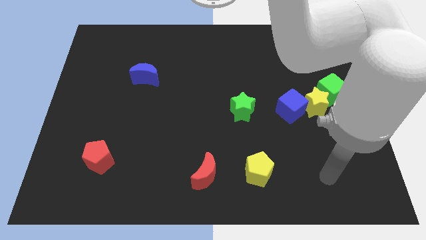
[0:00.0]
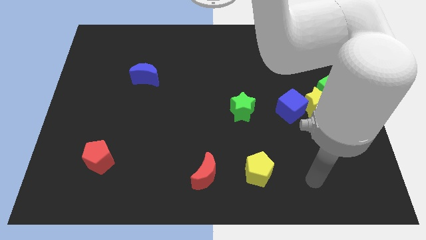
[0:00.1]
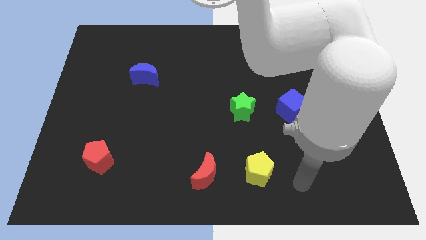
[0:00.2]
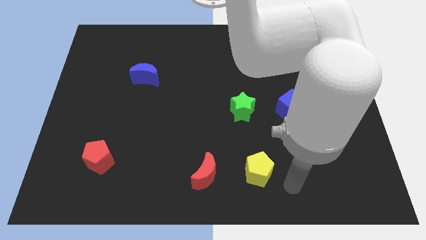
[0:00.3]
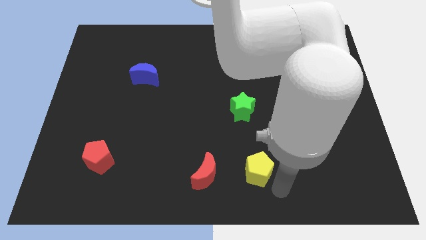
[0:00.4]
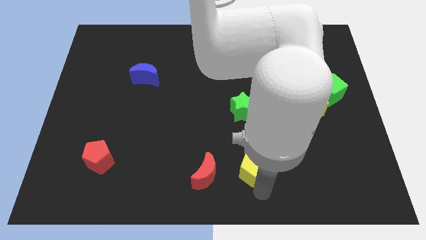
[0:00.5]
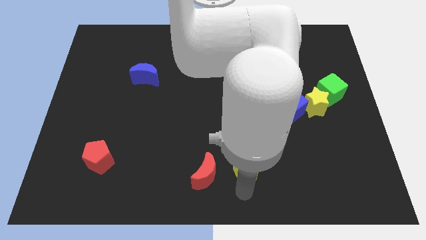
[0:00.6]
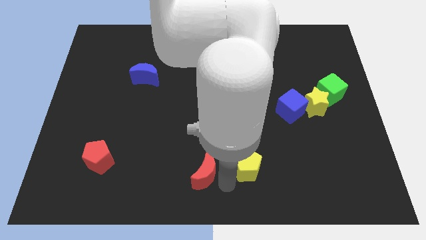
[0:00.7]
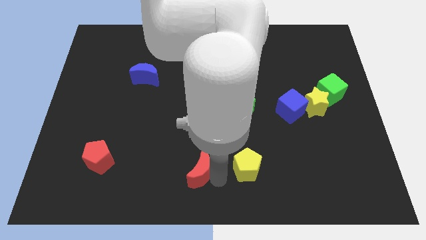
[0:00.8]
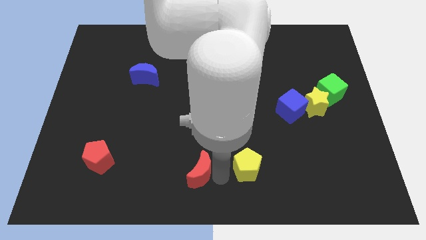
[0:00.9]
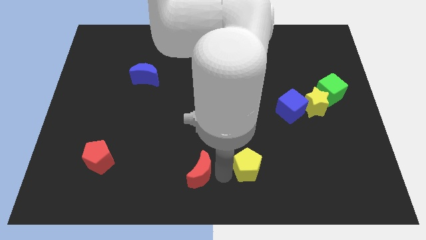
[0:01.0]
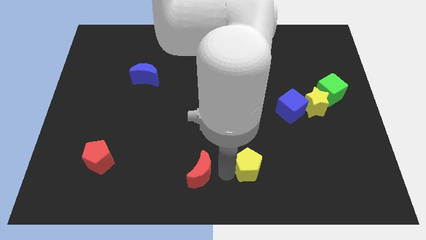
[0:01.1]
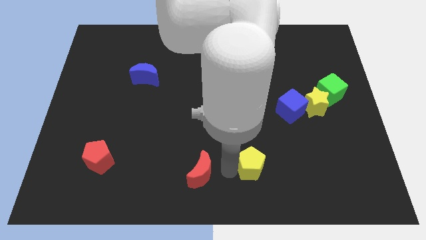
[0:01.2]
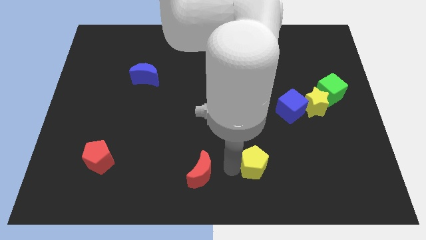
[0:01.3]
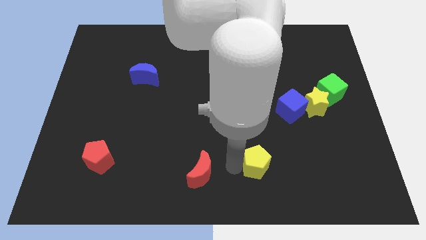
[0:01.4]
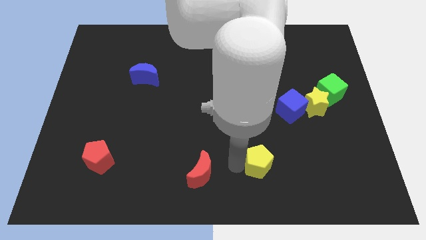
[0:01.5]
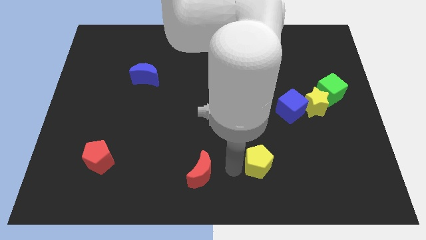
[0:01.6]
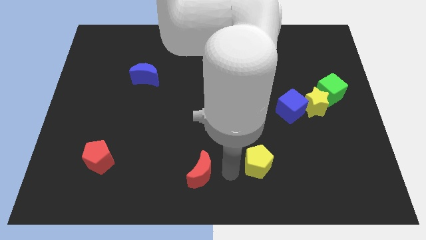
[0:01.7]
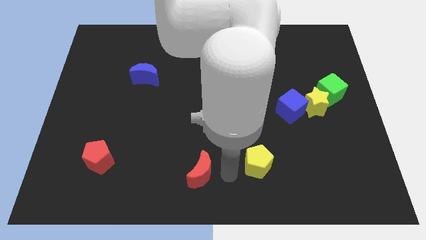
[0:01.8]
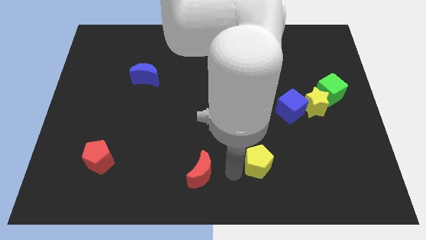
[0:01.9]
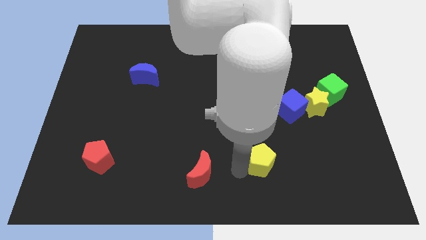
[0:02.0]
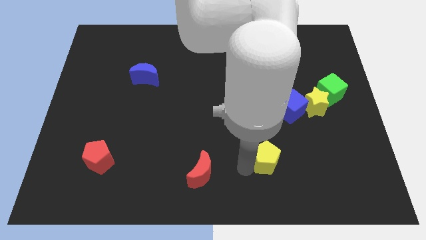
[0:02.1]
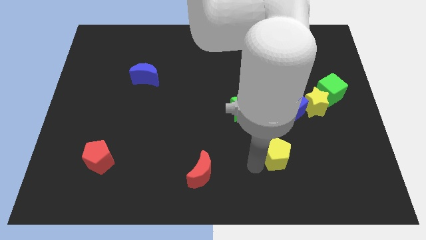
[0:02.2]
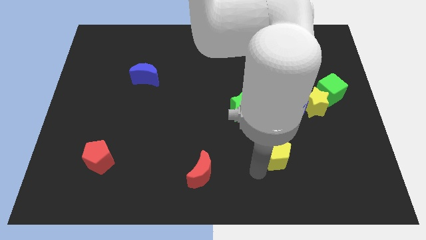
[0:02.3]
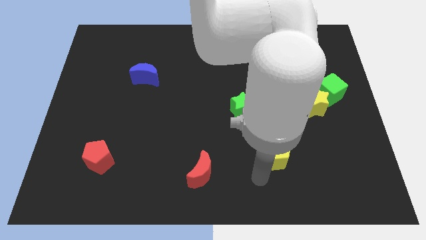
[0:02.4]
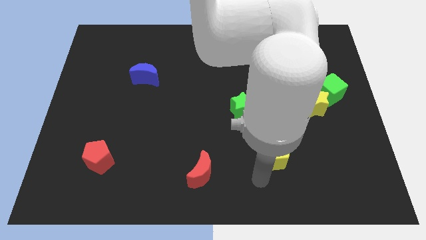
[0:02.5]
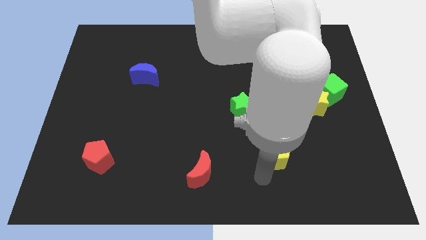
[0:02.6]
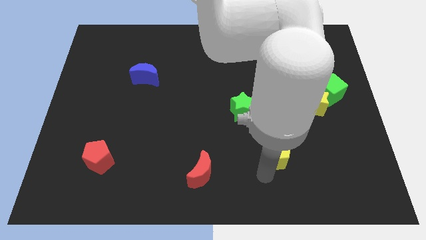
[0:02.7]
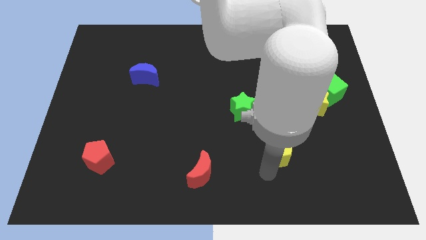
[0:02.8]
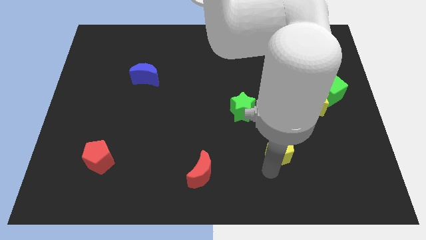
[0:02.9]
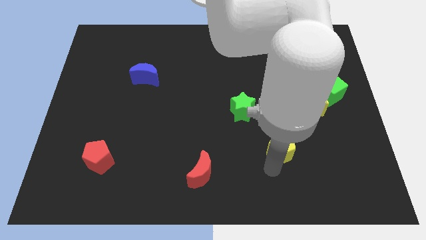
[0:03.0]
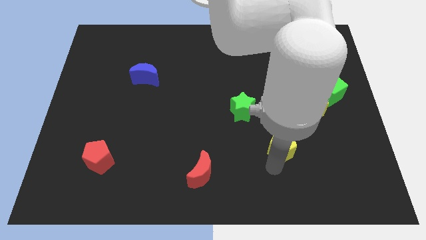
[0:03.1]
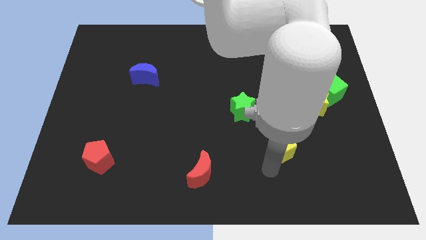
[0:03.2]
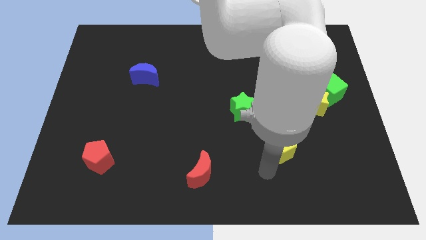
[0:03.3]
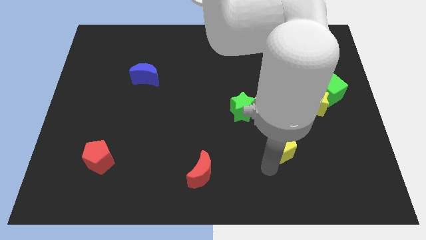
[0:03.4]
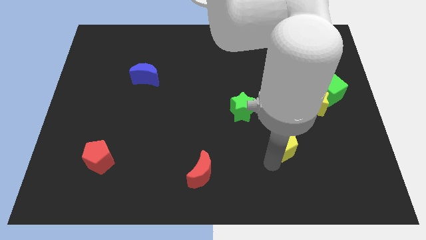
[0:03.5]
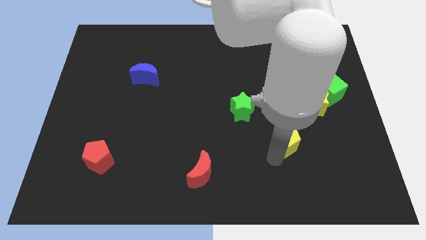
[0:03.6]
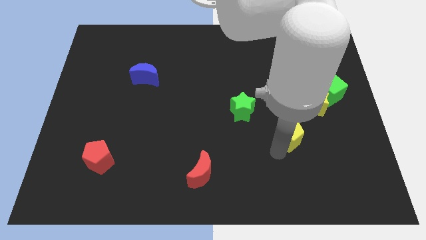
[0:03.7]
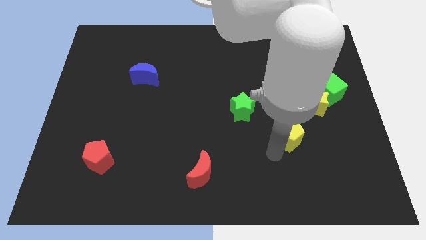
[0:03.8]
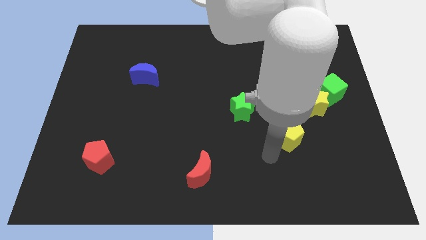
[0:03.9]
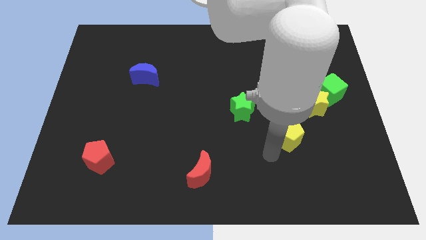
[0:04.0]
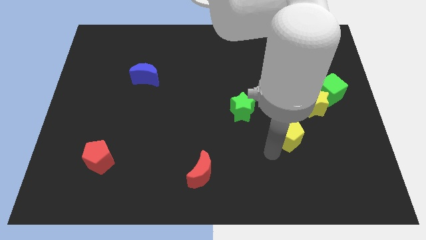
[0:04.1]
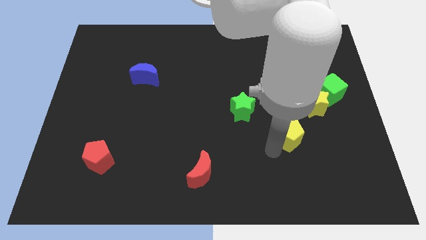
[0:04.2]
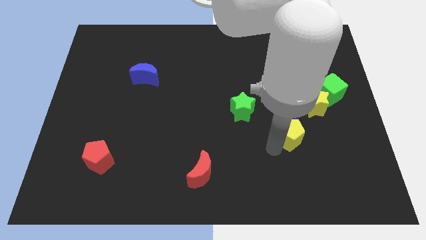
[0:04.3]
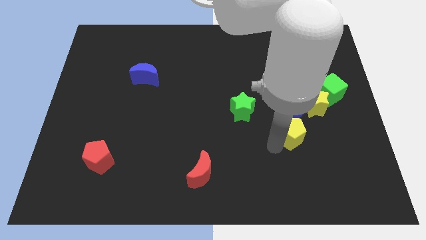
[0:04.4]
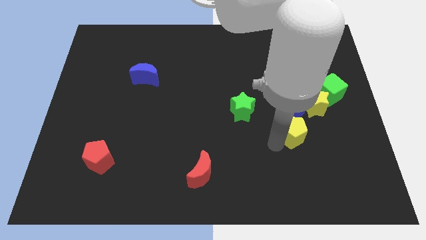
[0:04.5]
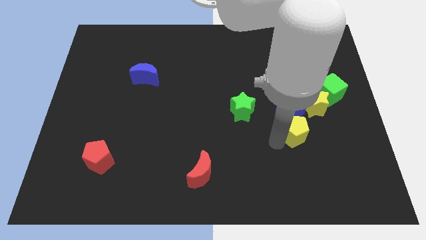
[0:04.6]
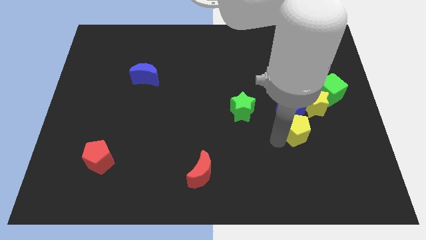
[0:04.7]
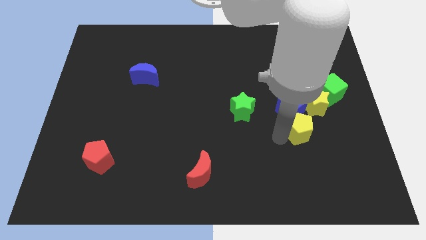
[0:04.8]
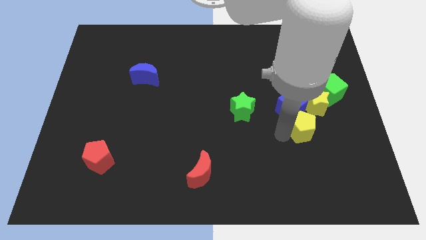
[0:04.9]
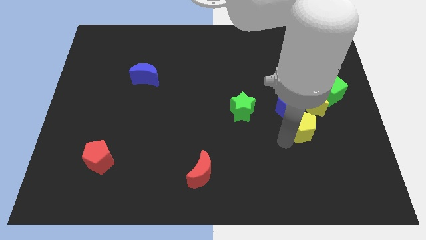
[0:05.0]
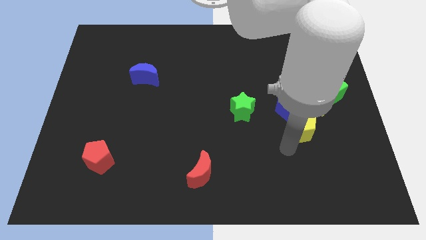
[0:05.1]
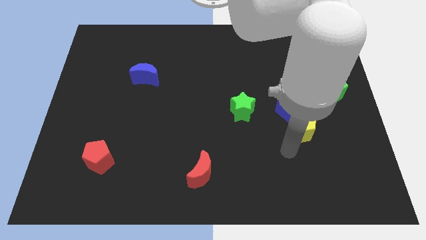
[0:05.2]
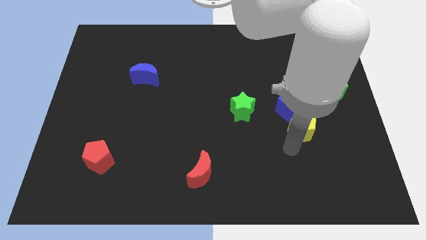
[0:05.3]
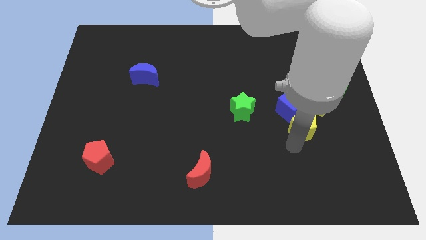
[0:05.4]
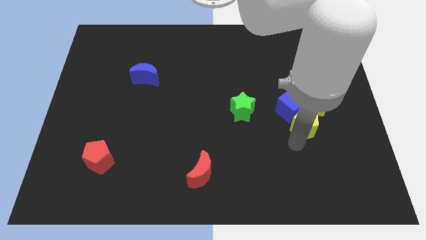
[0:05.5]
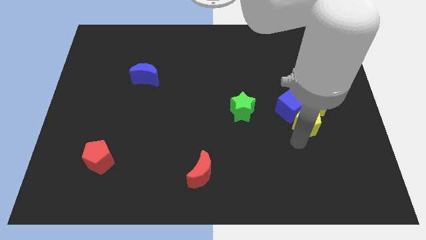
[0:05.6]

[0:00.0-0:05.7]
slide the yellow pentagon to the yellow star
